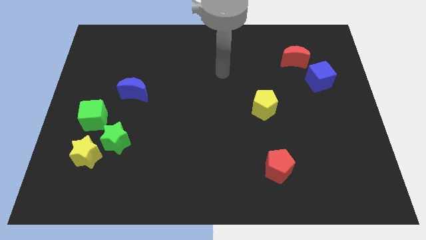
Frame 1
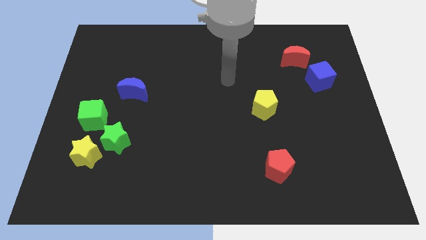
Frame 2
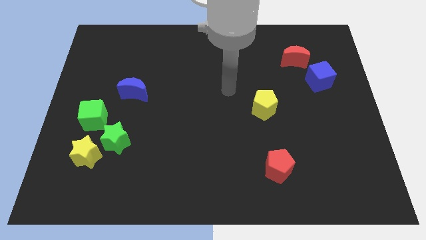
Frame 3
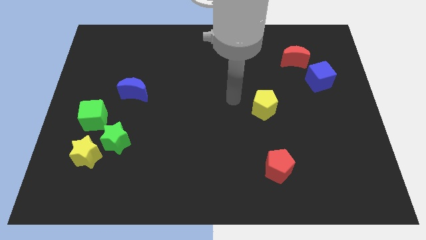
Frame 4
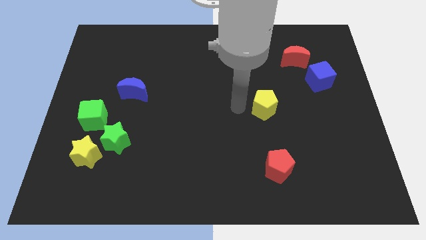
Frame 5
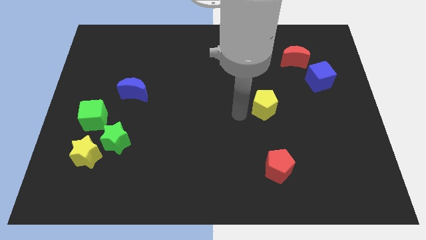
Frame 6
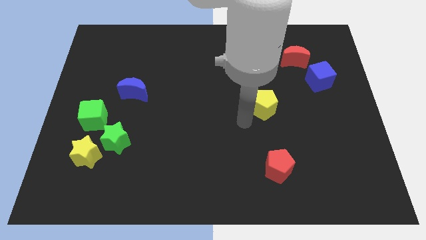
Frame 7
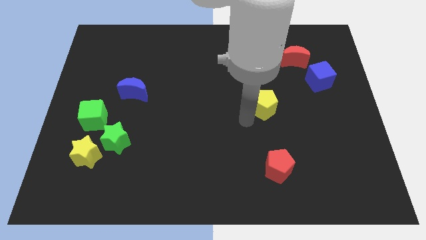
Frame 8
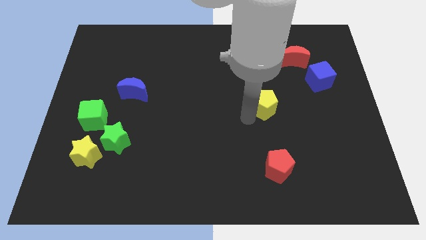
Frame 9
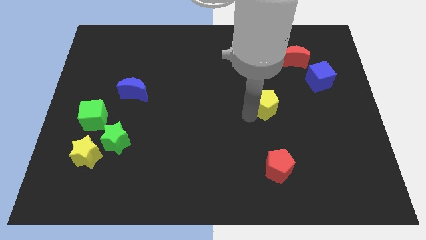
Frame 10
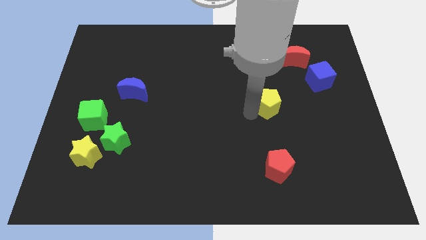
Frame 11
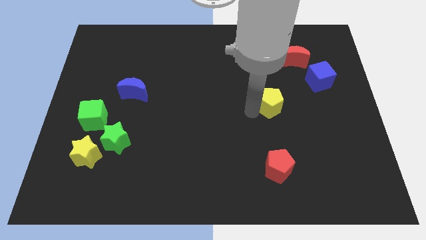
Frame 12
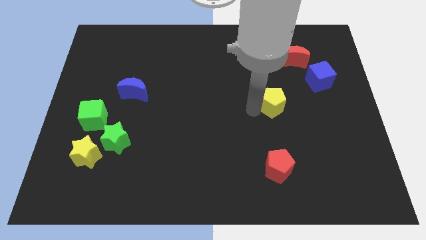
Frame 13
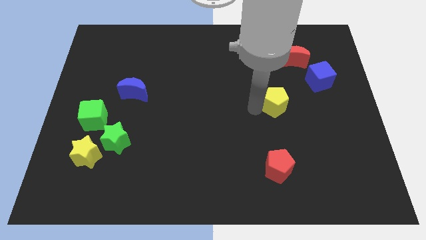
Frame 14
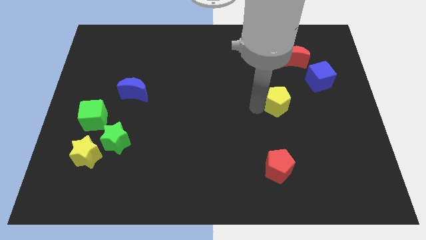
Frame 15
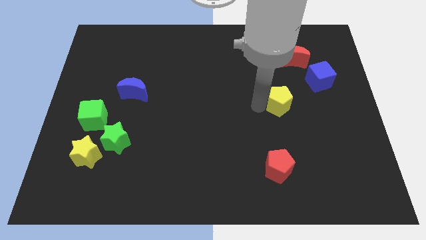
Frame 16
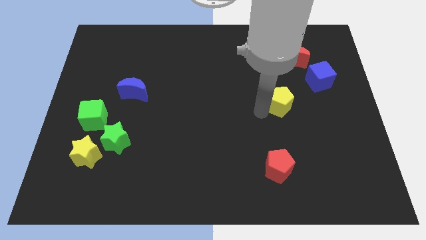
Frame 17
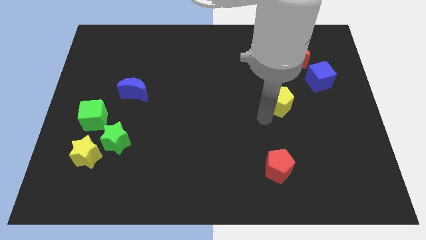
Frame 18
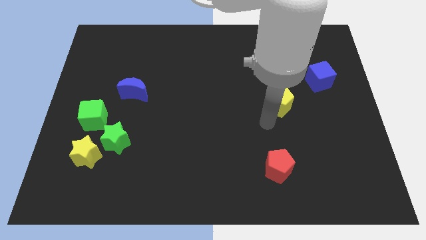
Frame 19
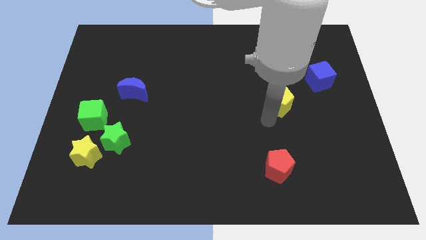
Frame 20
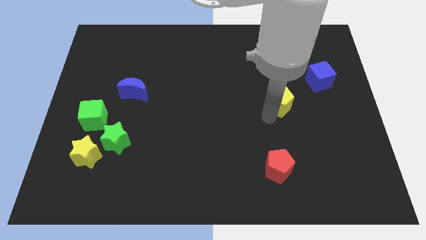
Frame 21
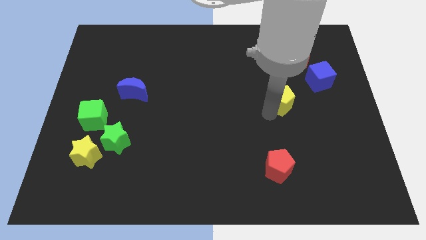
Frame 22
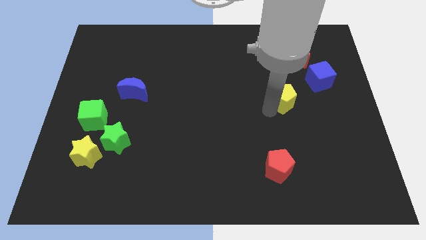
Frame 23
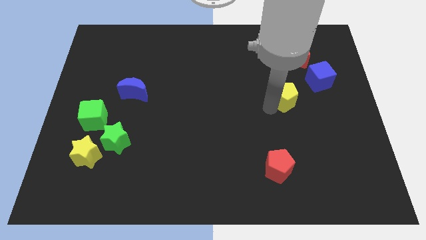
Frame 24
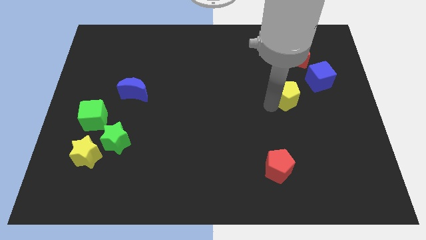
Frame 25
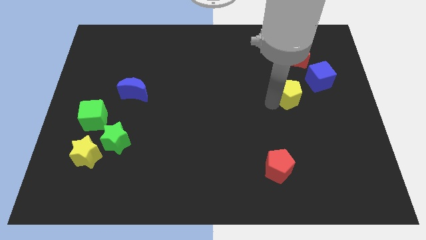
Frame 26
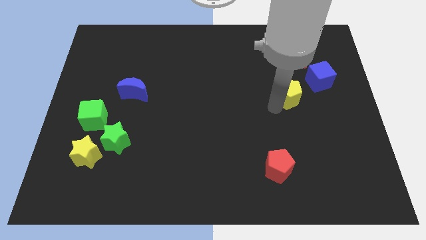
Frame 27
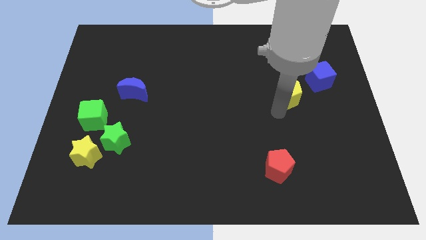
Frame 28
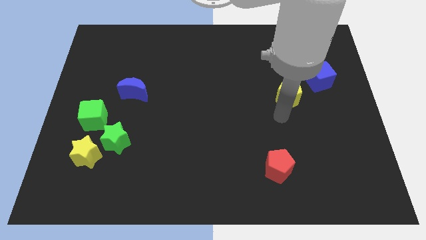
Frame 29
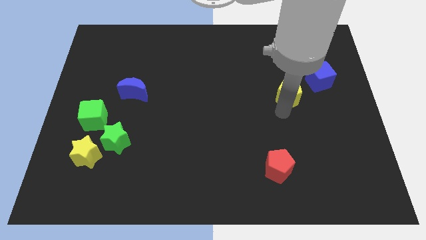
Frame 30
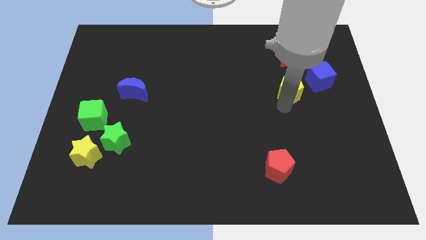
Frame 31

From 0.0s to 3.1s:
move the yellow pentagon up and to the right slightly

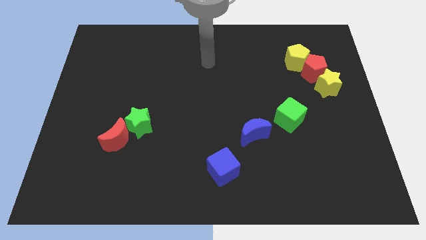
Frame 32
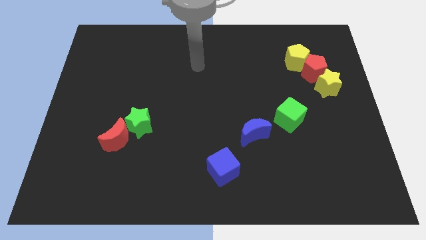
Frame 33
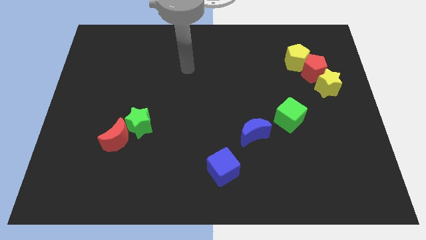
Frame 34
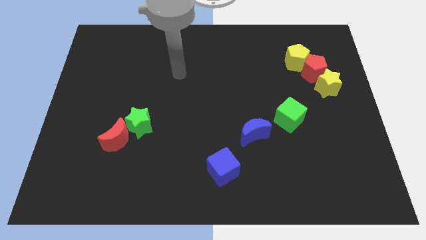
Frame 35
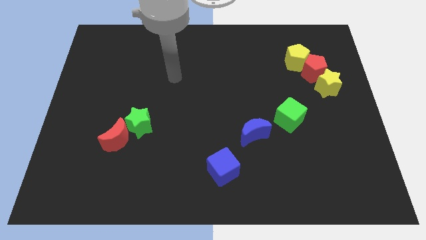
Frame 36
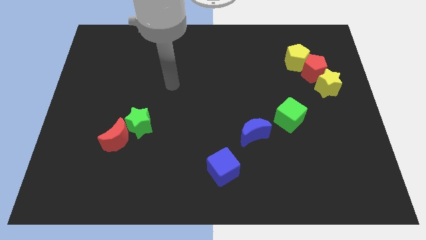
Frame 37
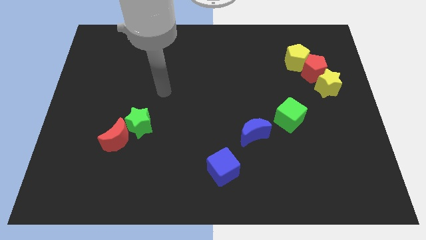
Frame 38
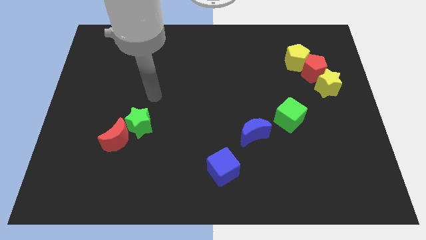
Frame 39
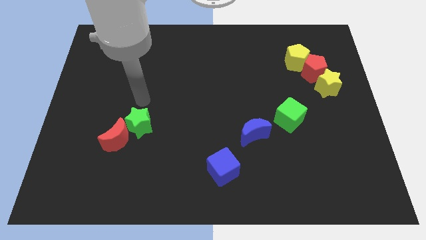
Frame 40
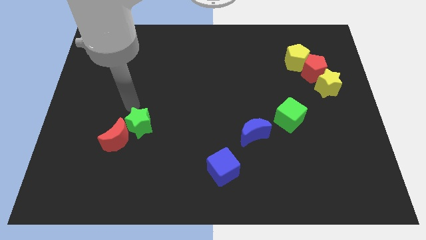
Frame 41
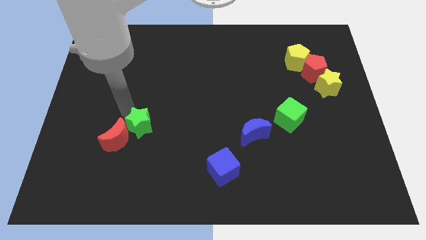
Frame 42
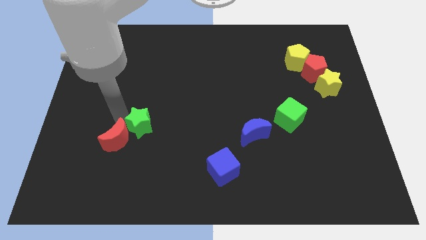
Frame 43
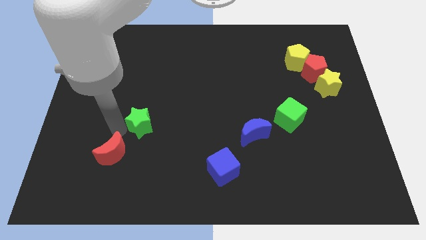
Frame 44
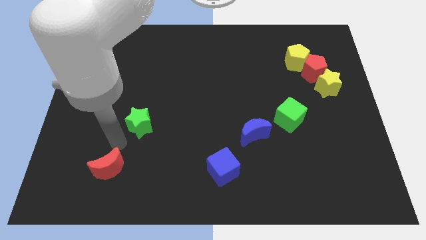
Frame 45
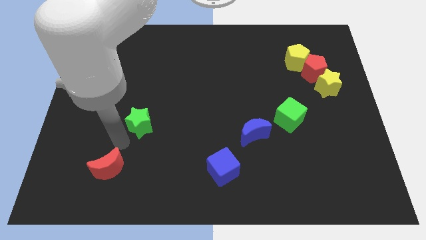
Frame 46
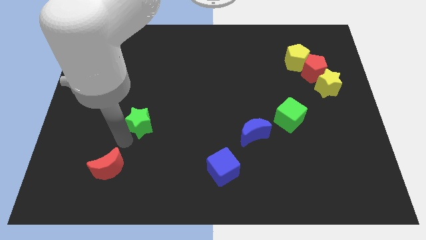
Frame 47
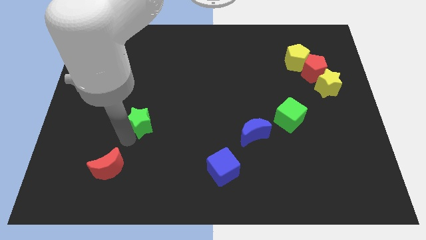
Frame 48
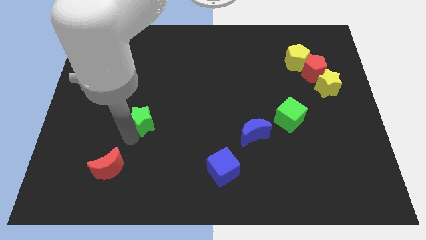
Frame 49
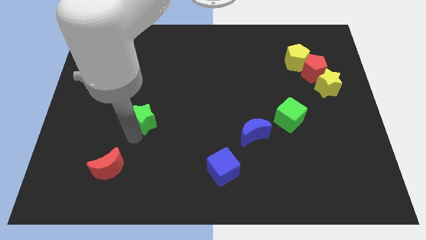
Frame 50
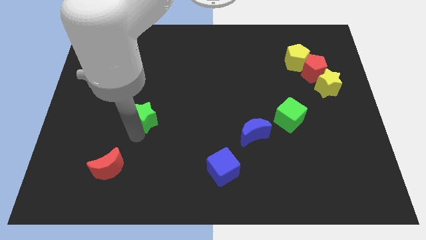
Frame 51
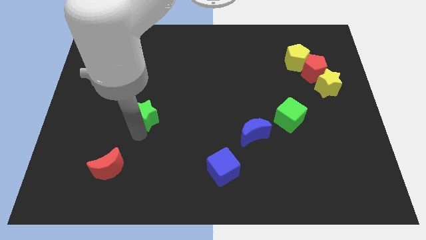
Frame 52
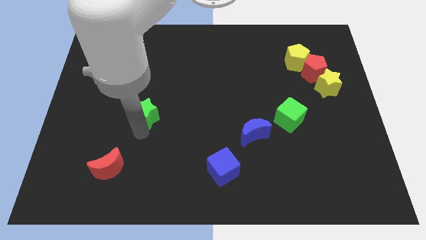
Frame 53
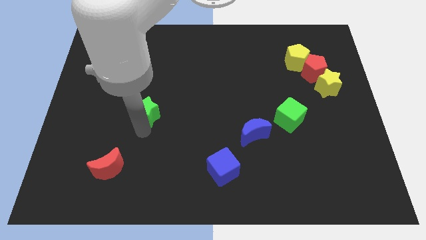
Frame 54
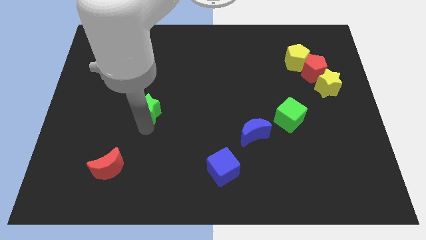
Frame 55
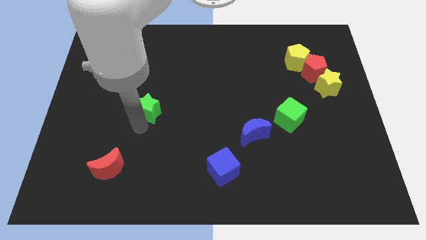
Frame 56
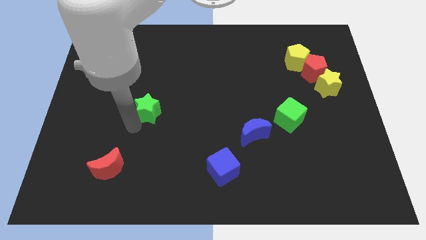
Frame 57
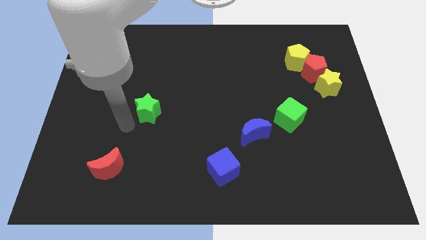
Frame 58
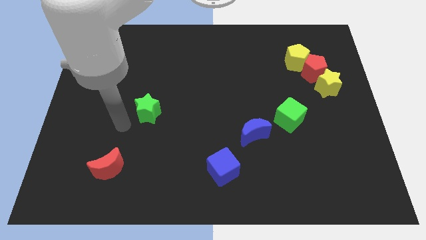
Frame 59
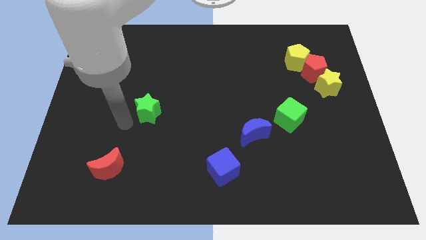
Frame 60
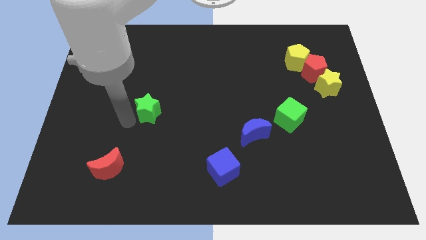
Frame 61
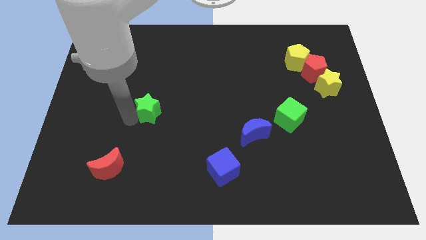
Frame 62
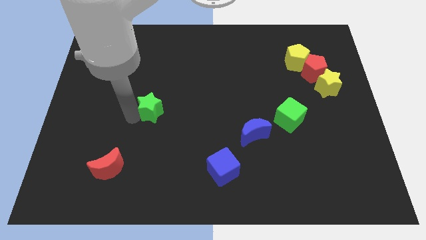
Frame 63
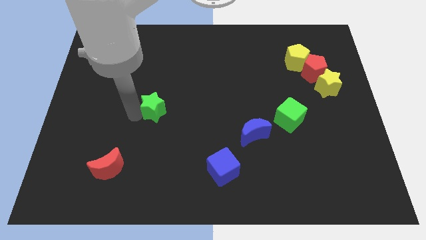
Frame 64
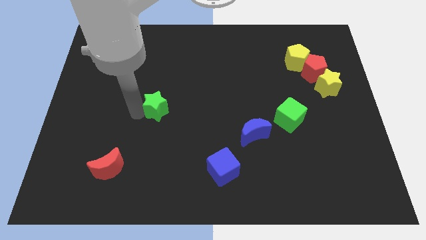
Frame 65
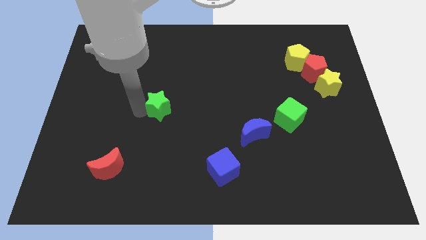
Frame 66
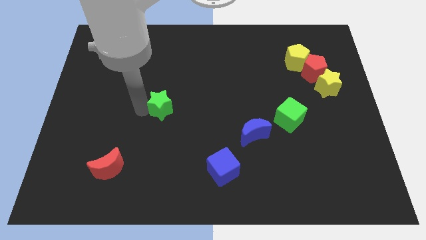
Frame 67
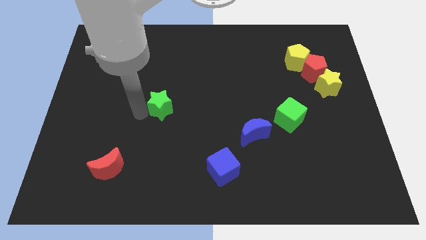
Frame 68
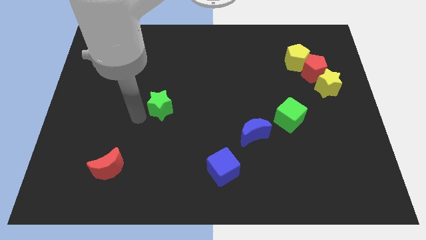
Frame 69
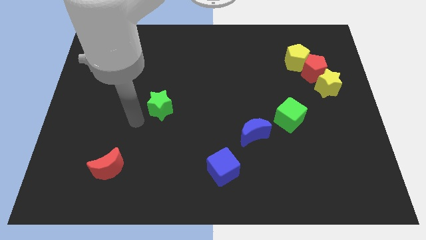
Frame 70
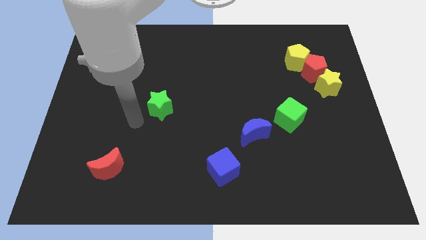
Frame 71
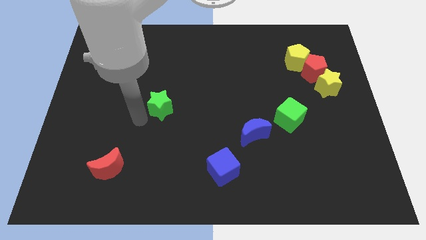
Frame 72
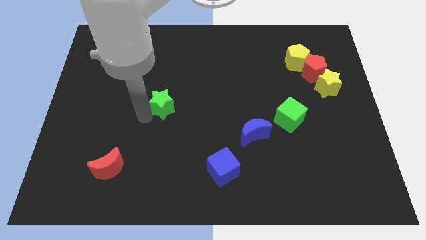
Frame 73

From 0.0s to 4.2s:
push the green star somewhat diagonally upwards and to the right

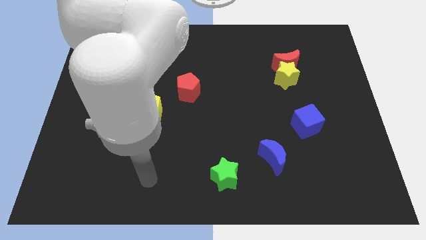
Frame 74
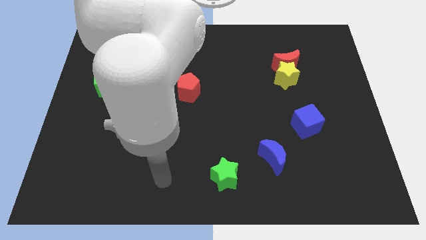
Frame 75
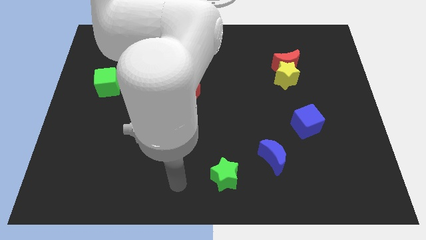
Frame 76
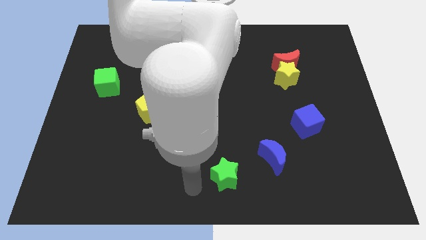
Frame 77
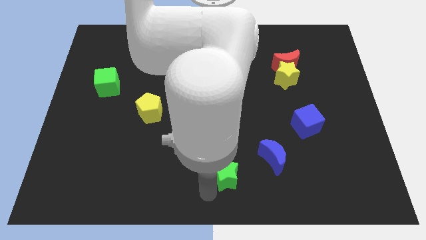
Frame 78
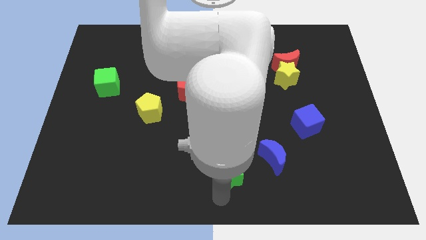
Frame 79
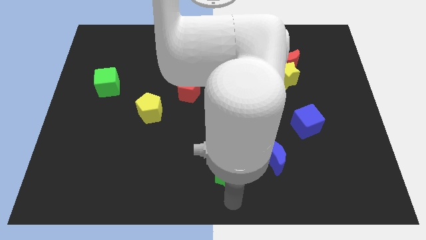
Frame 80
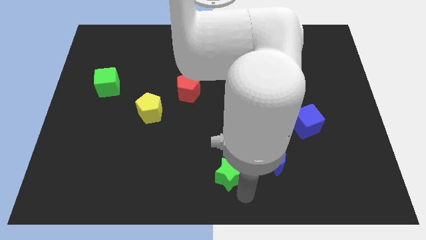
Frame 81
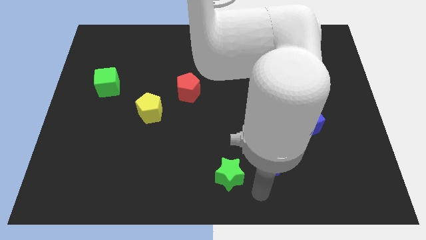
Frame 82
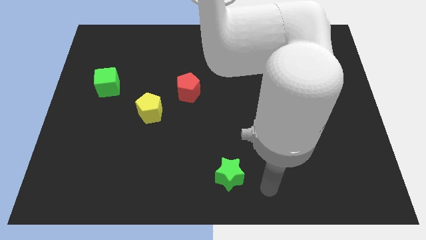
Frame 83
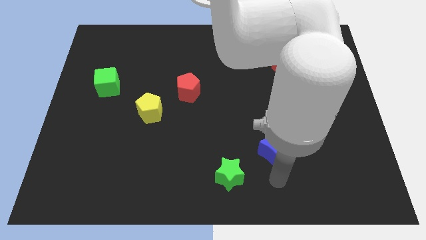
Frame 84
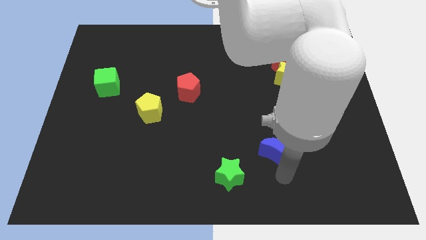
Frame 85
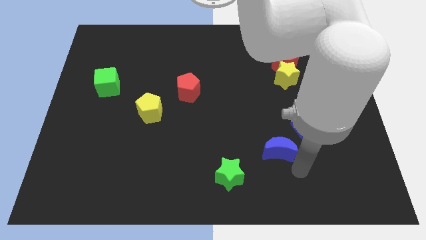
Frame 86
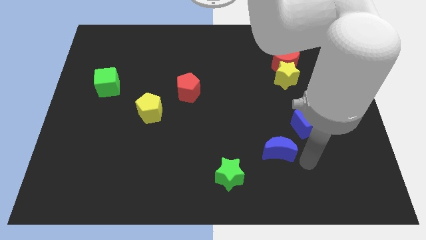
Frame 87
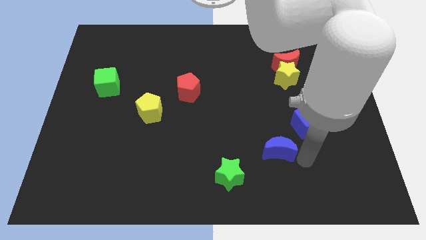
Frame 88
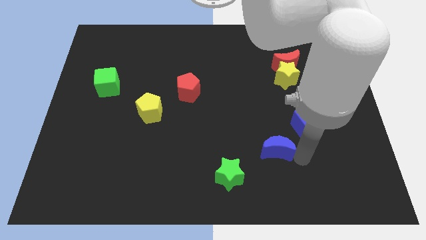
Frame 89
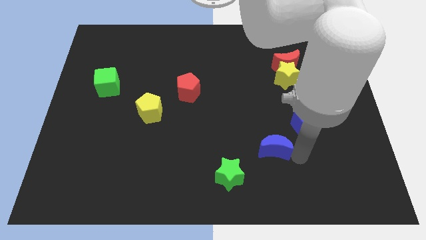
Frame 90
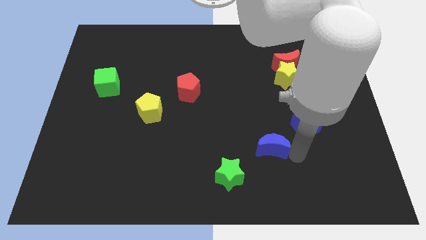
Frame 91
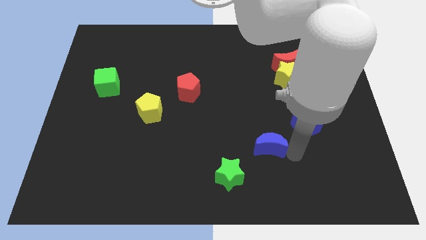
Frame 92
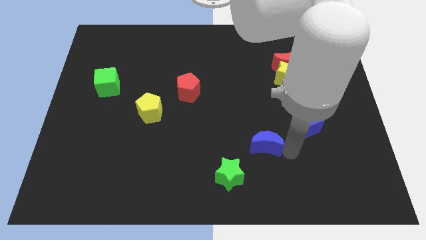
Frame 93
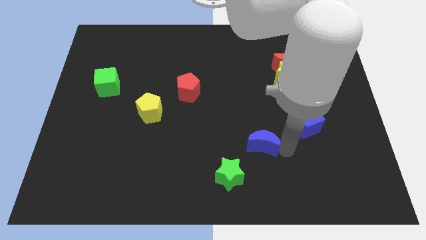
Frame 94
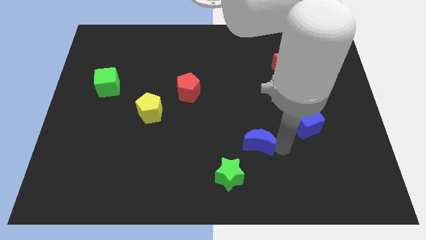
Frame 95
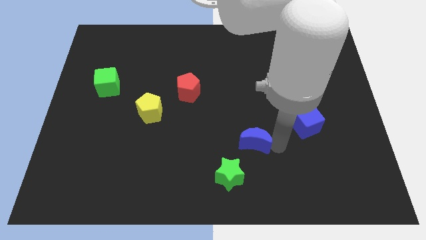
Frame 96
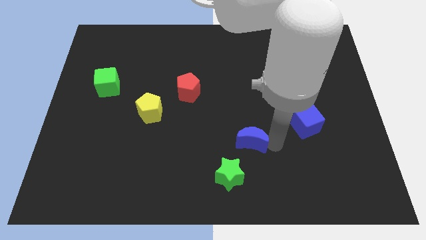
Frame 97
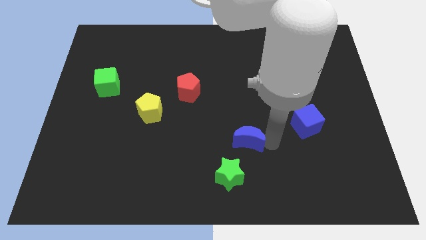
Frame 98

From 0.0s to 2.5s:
slightly push the blue moon upwards and then left
